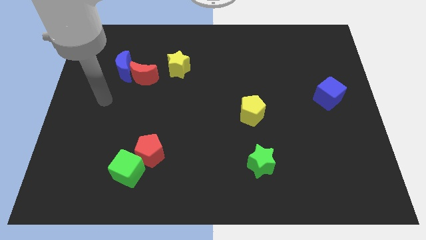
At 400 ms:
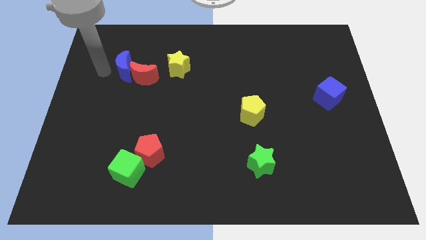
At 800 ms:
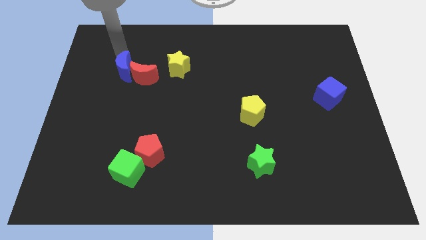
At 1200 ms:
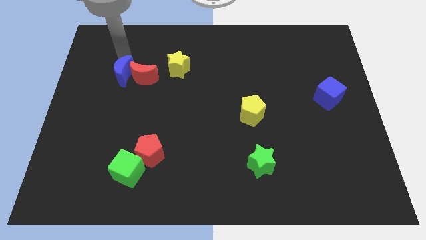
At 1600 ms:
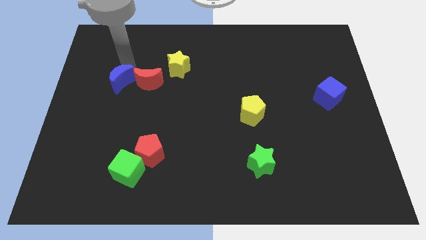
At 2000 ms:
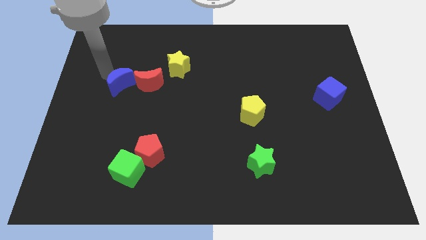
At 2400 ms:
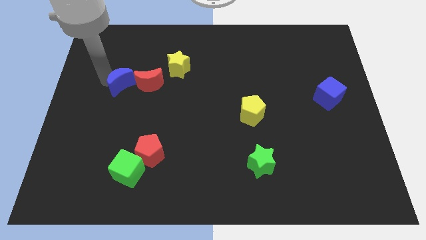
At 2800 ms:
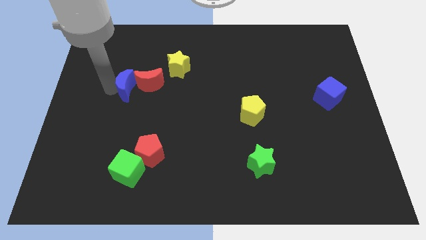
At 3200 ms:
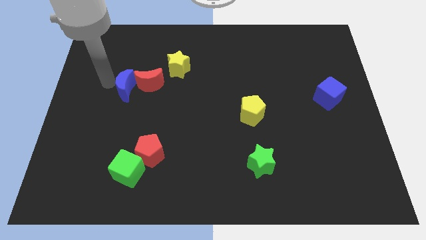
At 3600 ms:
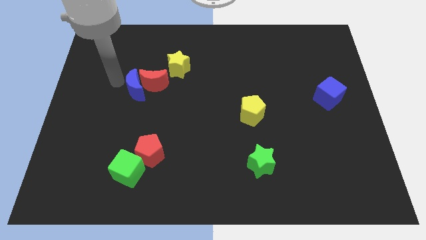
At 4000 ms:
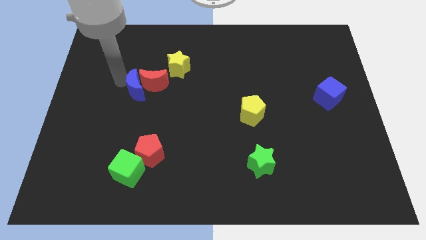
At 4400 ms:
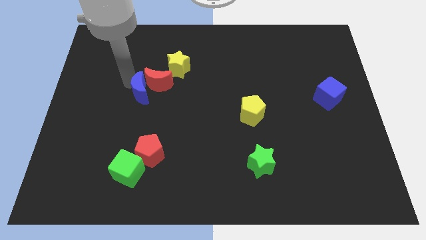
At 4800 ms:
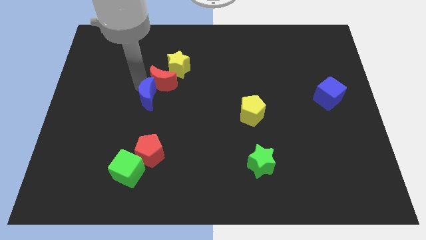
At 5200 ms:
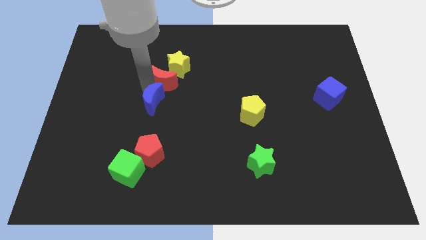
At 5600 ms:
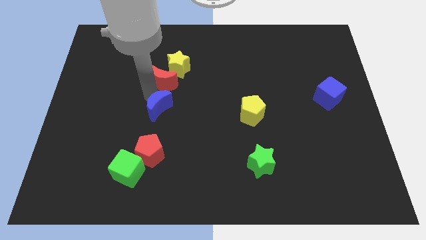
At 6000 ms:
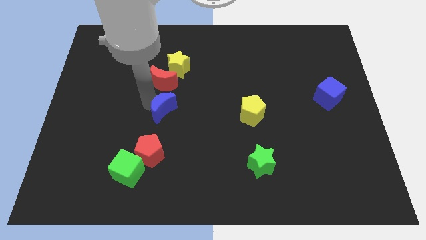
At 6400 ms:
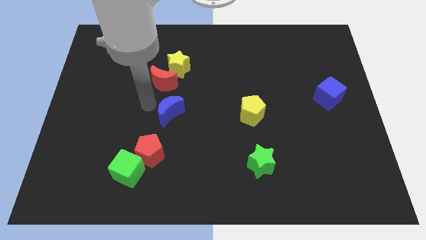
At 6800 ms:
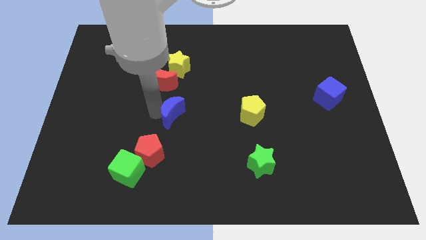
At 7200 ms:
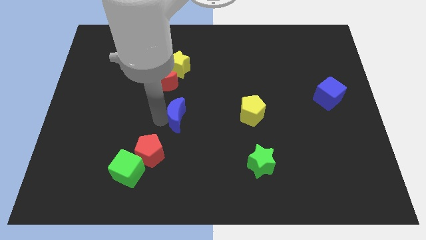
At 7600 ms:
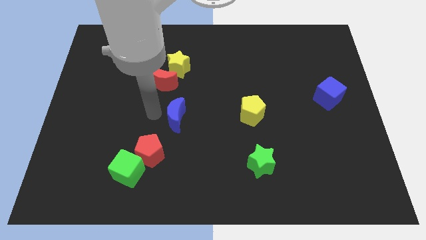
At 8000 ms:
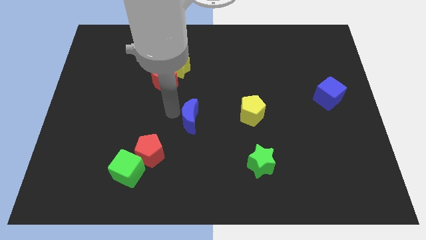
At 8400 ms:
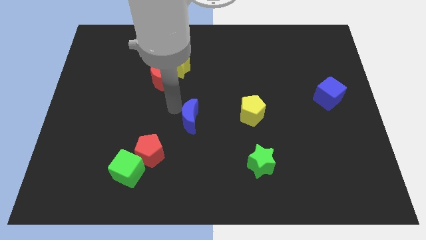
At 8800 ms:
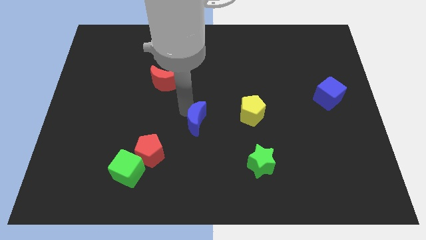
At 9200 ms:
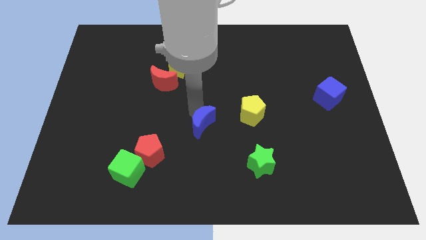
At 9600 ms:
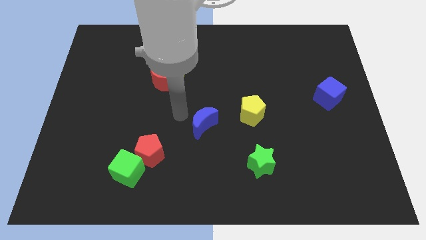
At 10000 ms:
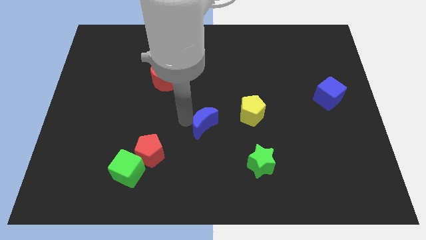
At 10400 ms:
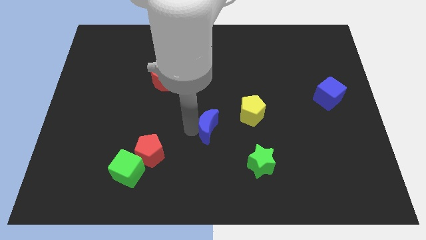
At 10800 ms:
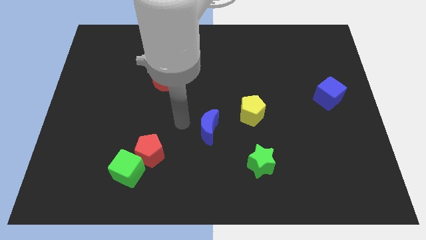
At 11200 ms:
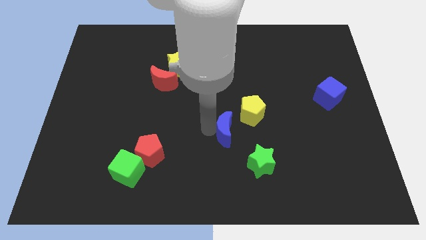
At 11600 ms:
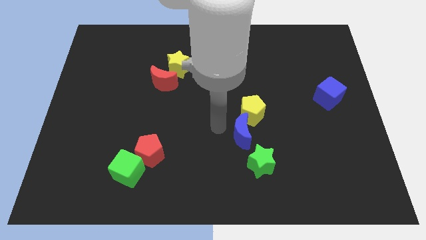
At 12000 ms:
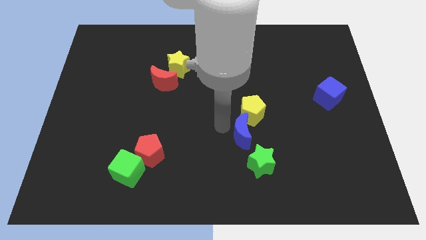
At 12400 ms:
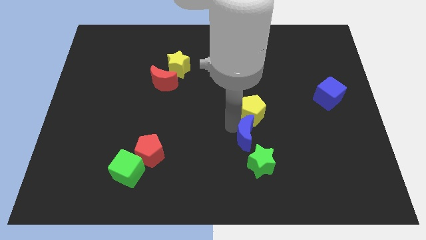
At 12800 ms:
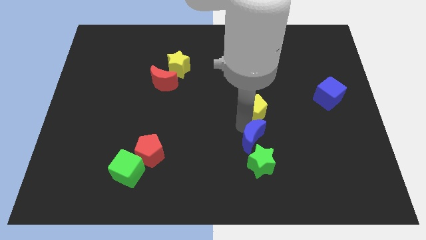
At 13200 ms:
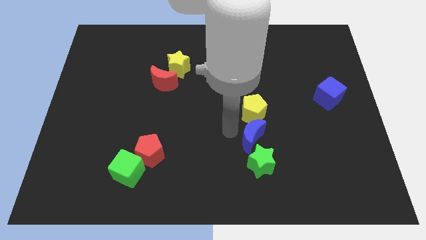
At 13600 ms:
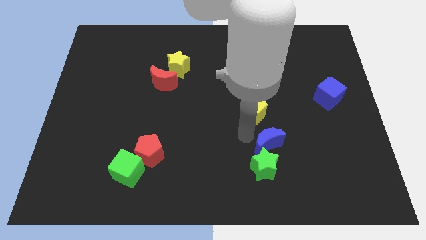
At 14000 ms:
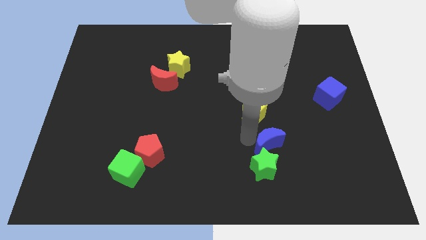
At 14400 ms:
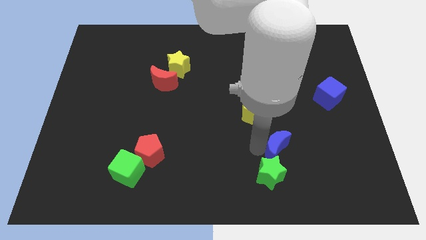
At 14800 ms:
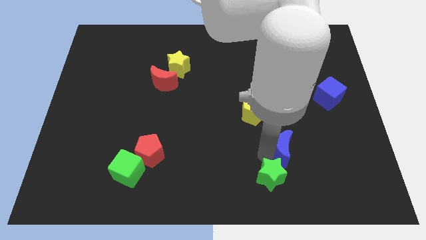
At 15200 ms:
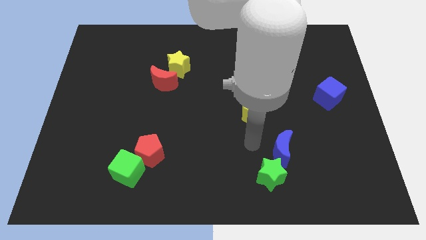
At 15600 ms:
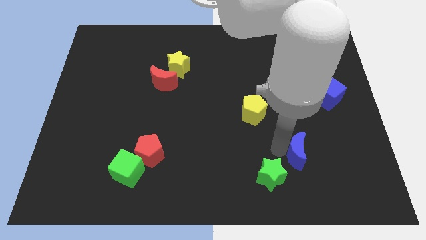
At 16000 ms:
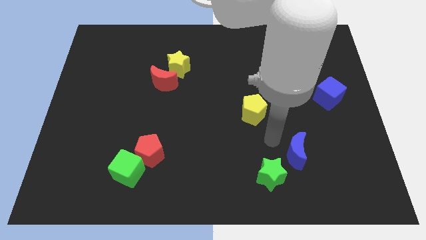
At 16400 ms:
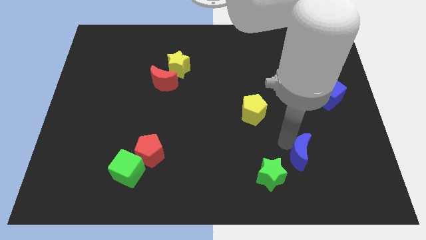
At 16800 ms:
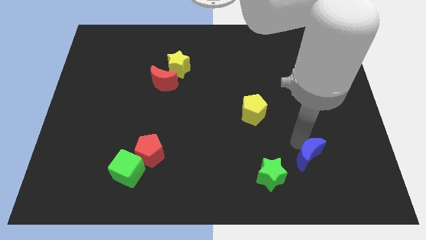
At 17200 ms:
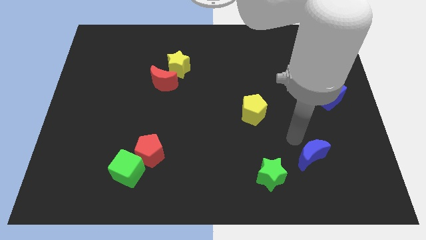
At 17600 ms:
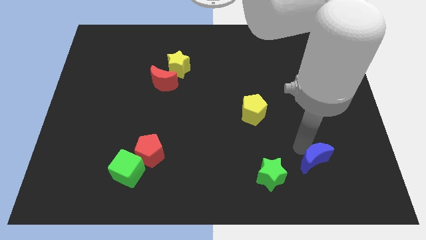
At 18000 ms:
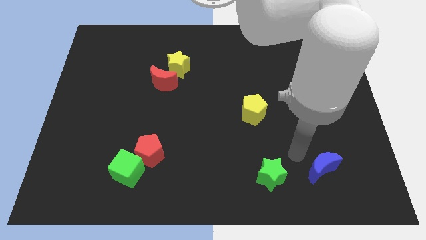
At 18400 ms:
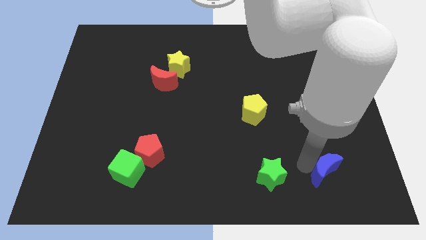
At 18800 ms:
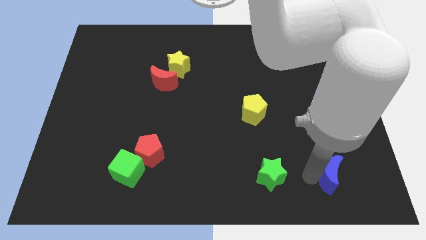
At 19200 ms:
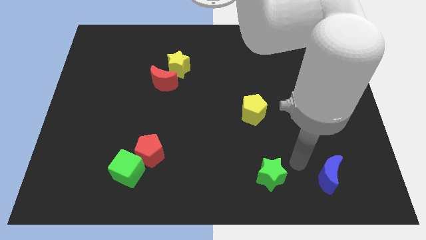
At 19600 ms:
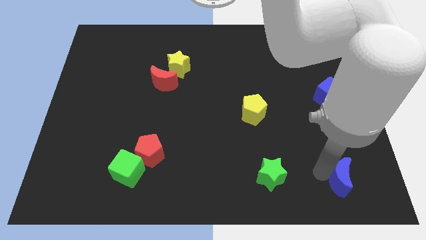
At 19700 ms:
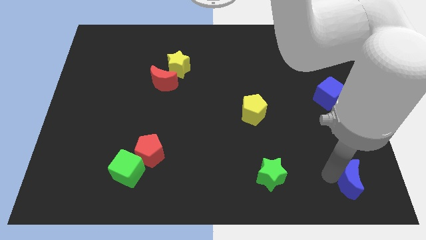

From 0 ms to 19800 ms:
push the blue moon to the bottom right

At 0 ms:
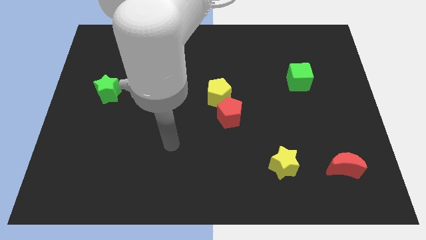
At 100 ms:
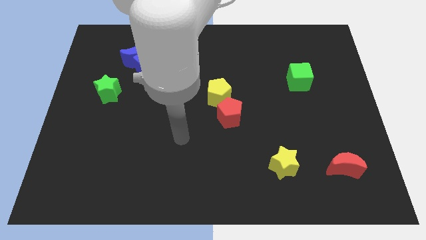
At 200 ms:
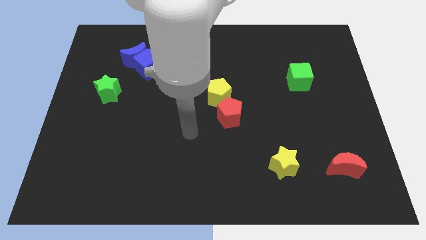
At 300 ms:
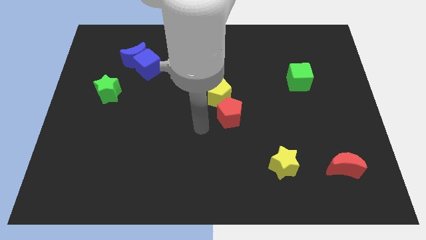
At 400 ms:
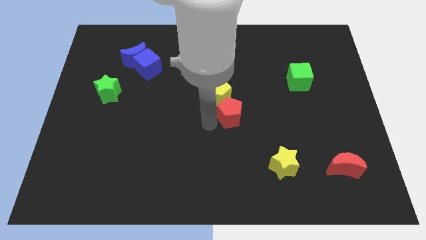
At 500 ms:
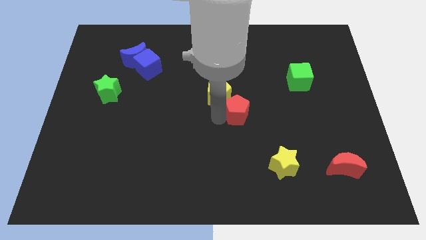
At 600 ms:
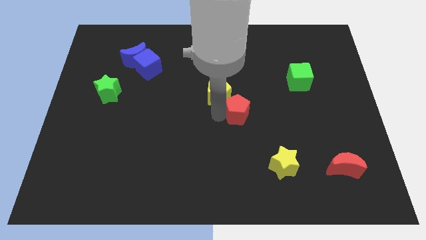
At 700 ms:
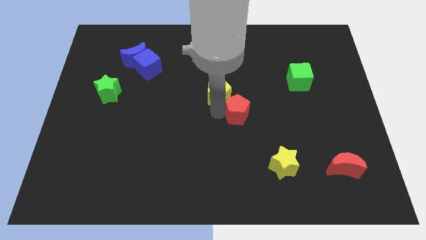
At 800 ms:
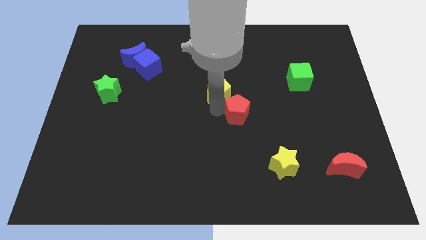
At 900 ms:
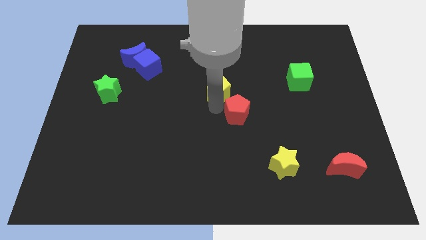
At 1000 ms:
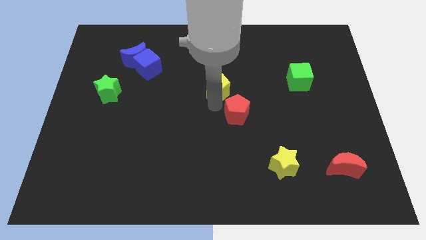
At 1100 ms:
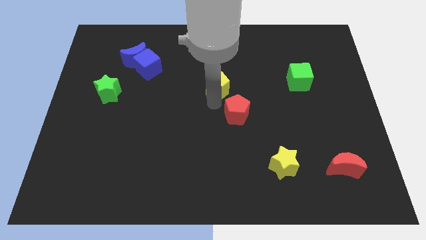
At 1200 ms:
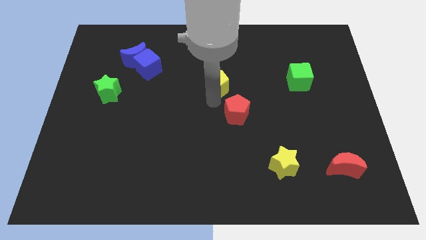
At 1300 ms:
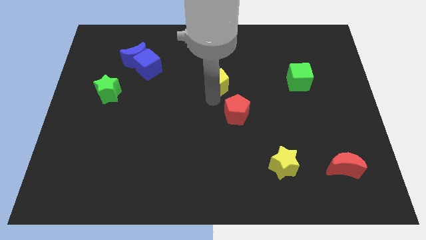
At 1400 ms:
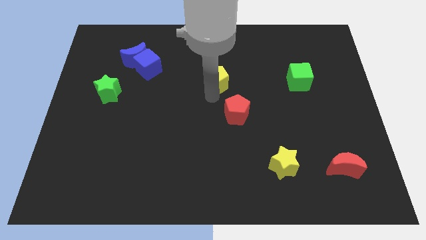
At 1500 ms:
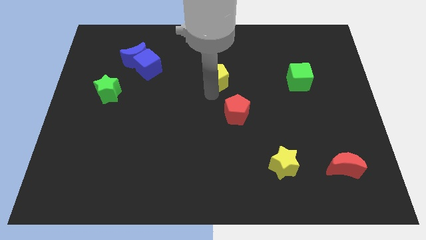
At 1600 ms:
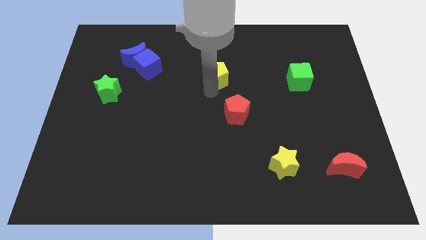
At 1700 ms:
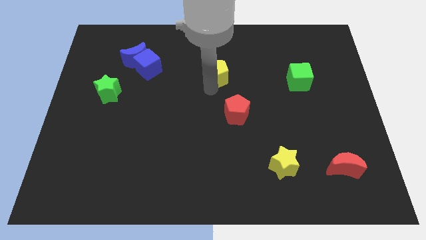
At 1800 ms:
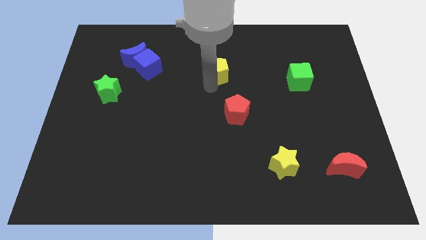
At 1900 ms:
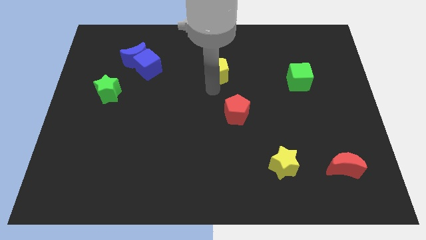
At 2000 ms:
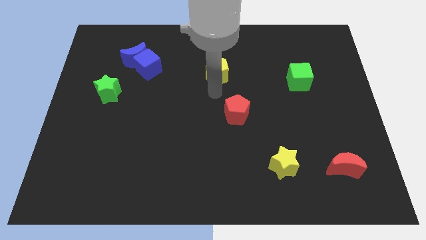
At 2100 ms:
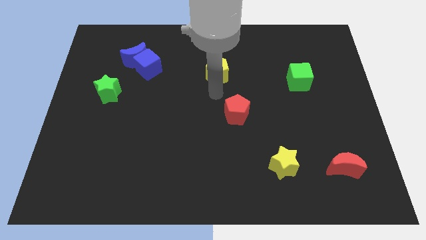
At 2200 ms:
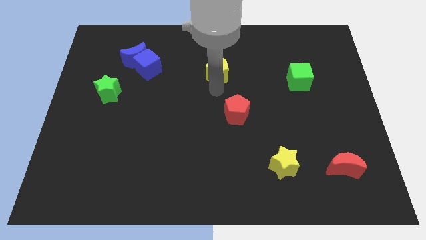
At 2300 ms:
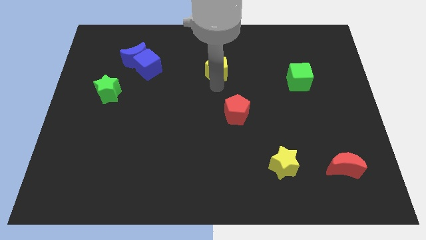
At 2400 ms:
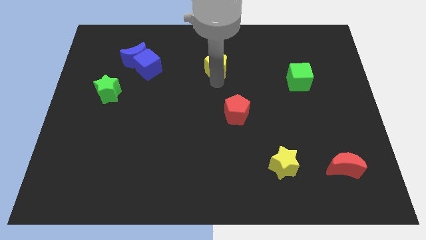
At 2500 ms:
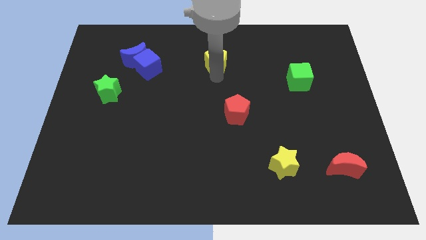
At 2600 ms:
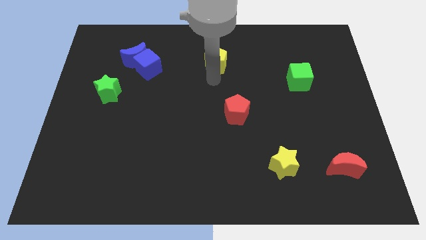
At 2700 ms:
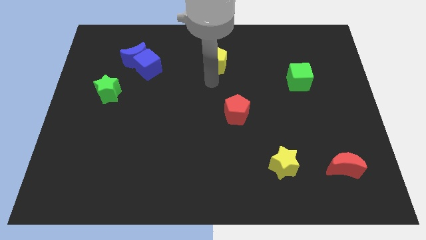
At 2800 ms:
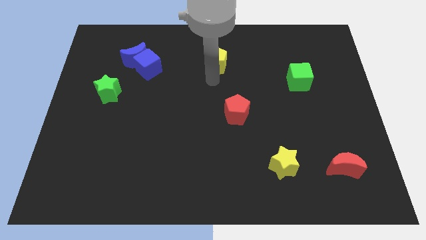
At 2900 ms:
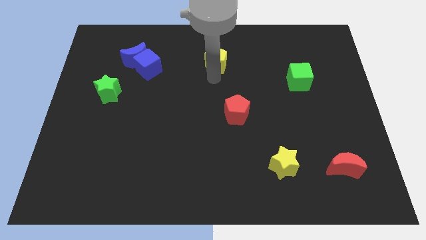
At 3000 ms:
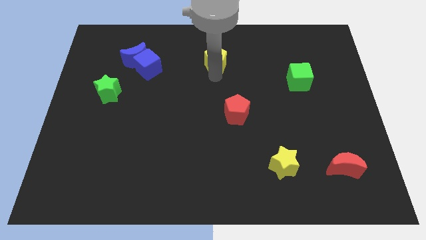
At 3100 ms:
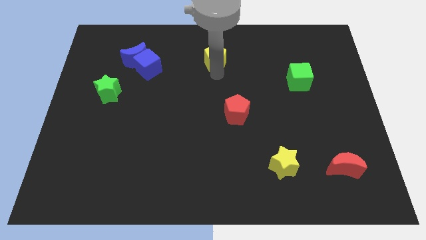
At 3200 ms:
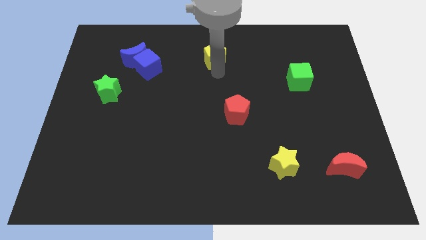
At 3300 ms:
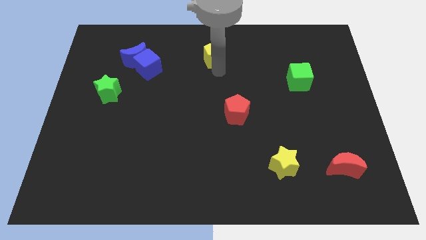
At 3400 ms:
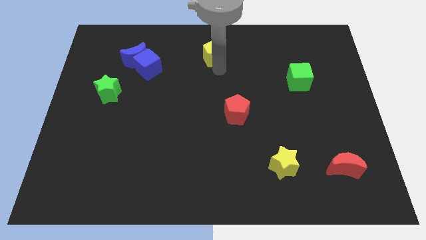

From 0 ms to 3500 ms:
put the yellow pentagon to the top side
